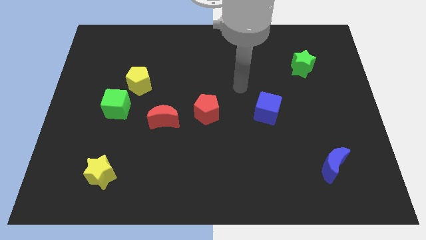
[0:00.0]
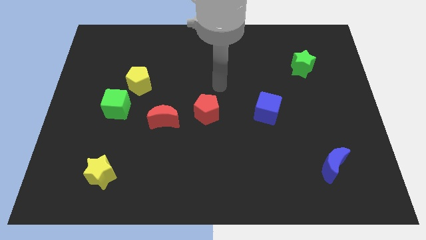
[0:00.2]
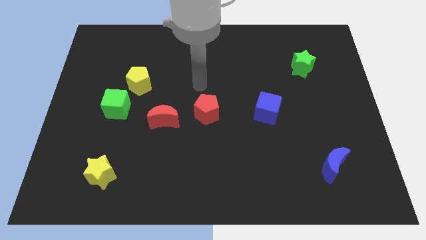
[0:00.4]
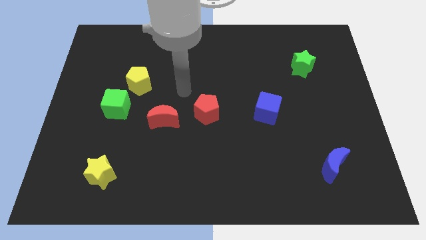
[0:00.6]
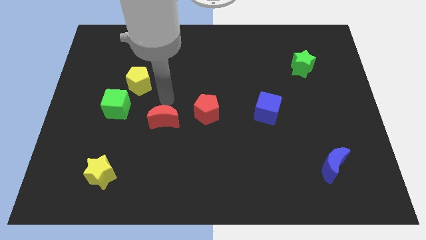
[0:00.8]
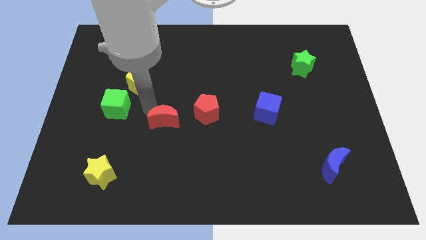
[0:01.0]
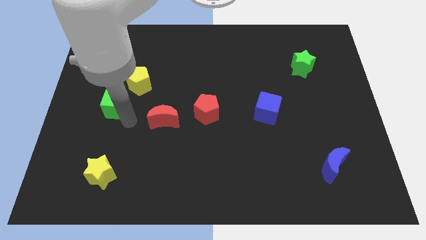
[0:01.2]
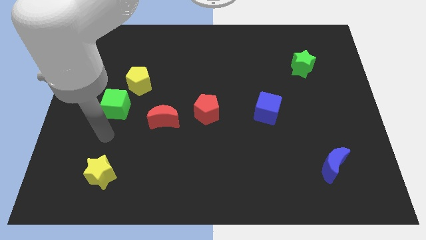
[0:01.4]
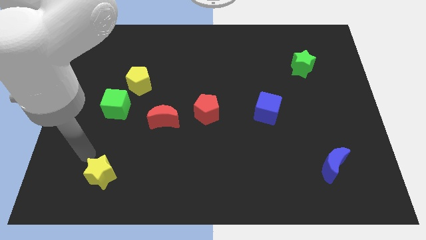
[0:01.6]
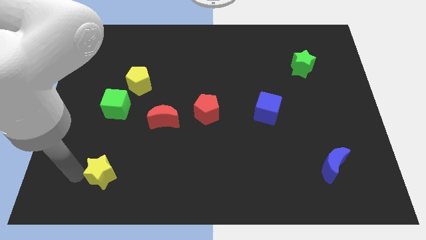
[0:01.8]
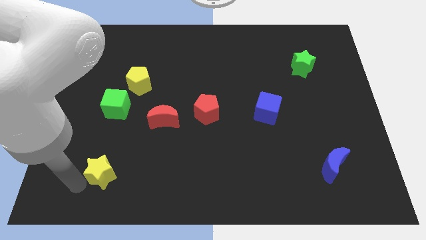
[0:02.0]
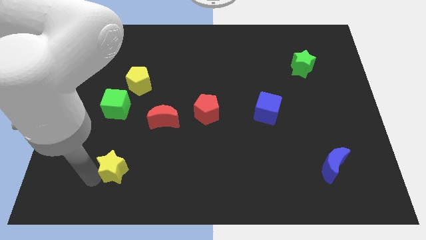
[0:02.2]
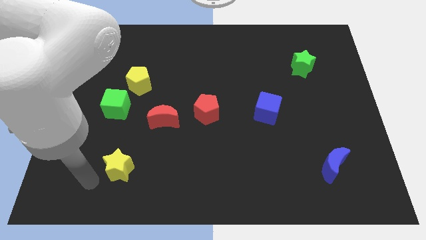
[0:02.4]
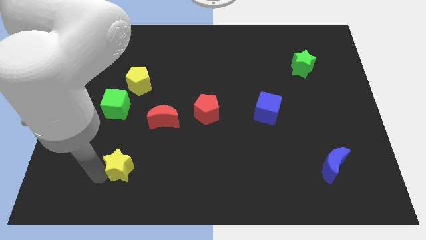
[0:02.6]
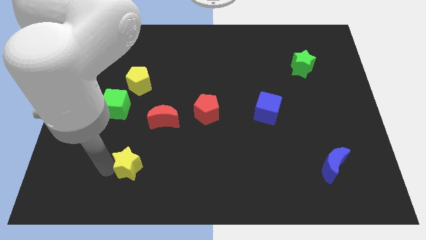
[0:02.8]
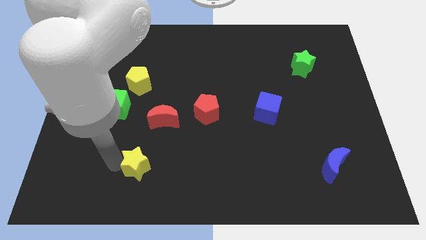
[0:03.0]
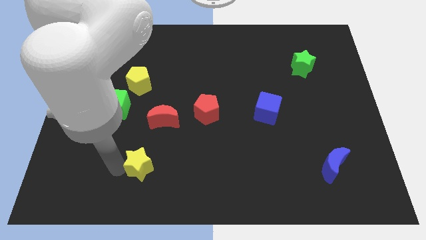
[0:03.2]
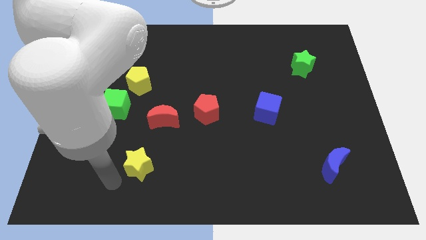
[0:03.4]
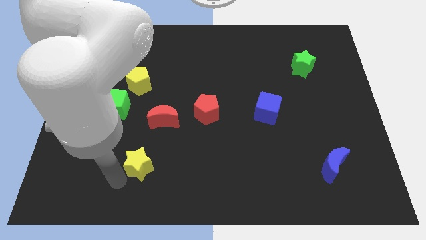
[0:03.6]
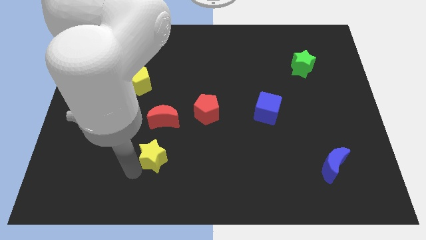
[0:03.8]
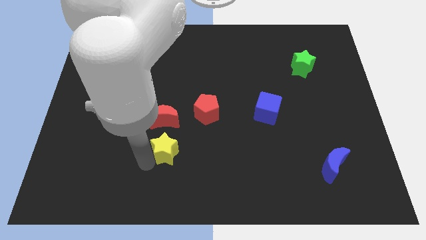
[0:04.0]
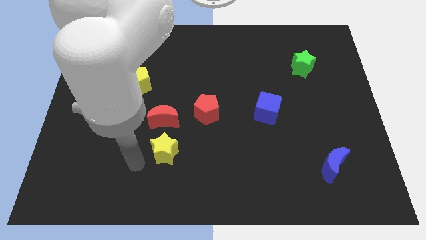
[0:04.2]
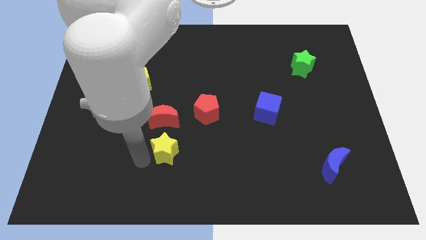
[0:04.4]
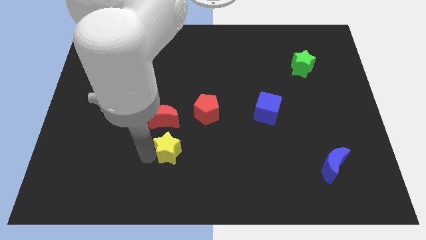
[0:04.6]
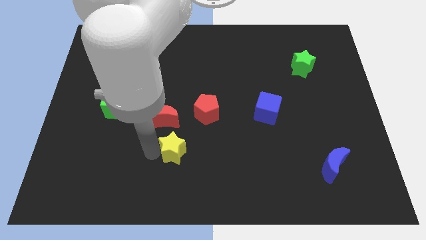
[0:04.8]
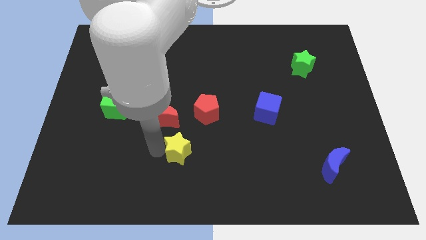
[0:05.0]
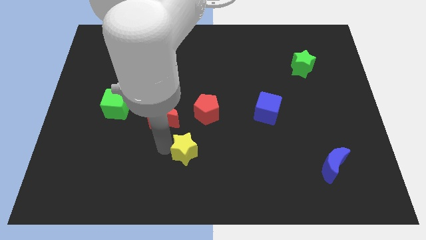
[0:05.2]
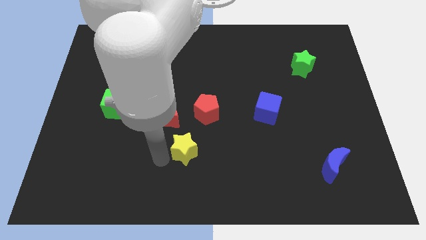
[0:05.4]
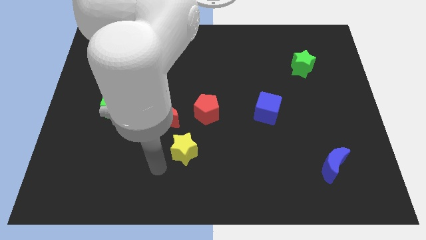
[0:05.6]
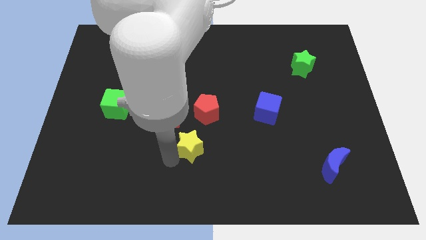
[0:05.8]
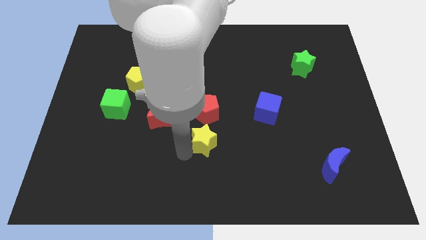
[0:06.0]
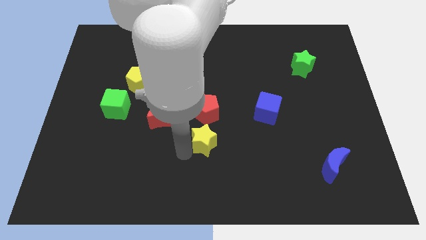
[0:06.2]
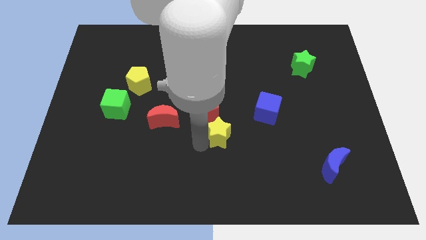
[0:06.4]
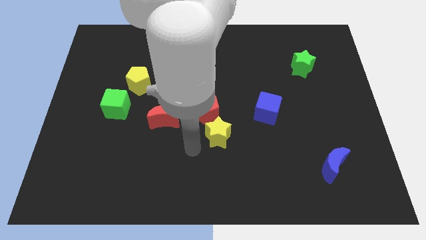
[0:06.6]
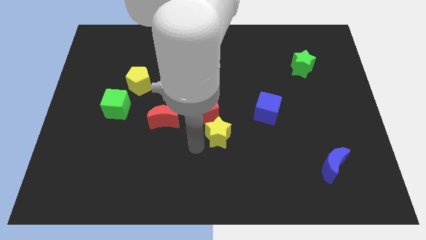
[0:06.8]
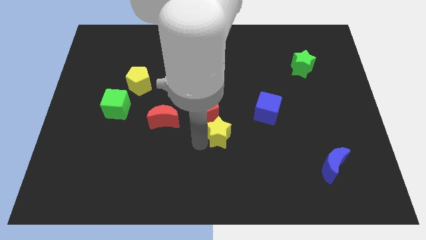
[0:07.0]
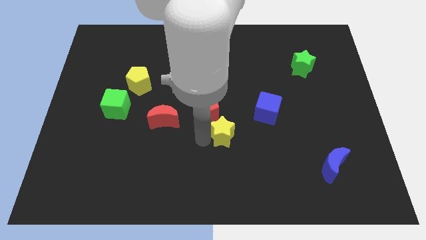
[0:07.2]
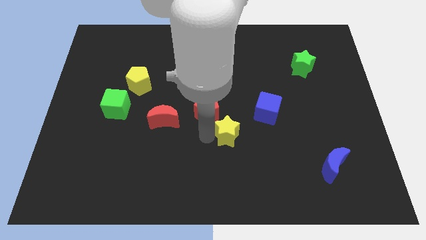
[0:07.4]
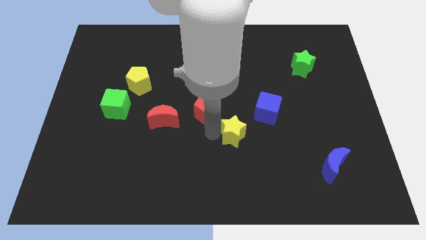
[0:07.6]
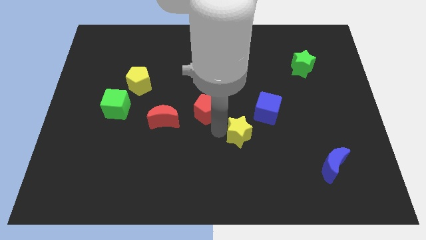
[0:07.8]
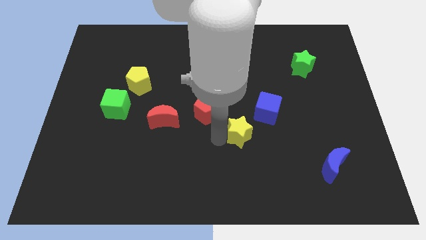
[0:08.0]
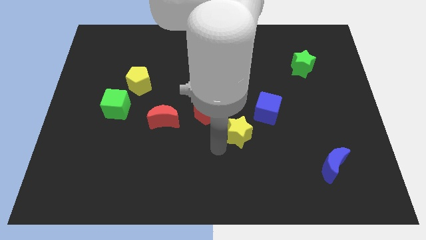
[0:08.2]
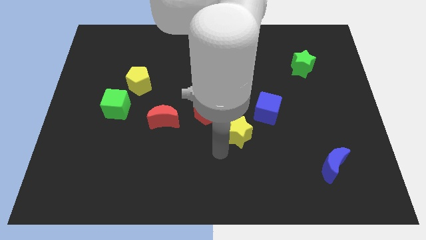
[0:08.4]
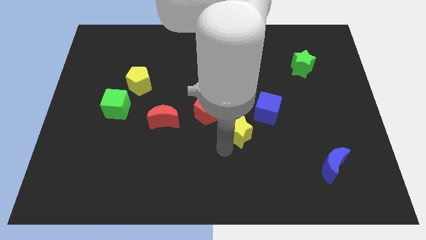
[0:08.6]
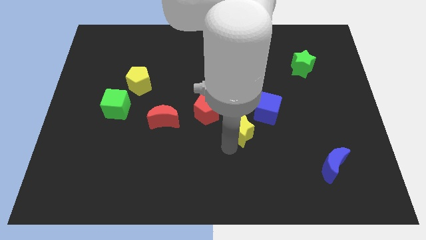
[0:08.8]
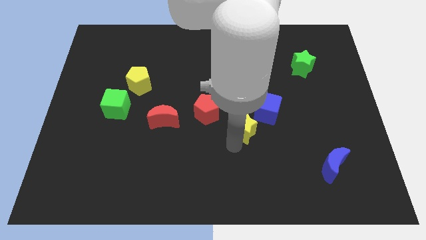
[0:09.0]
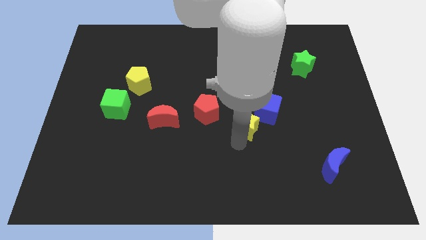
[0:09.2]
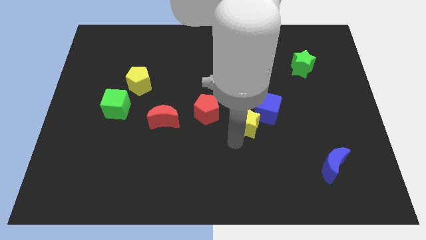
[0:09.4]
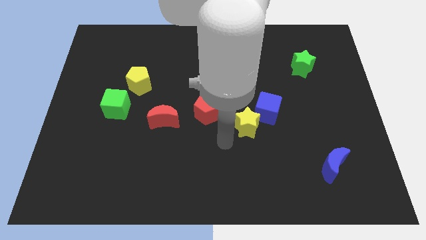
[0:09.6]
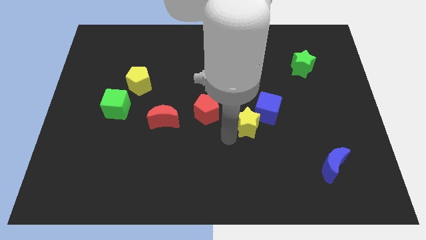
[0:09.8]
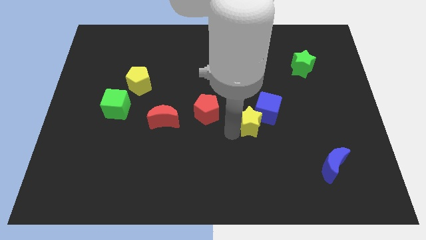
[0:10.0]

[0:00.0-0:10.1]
move the yellow star to the blue cube

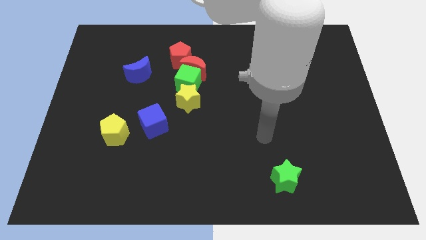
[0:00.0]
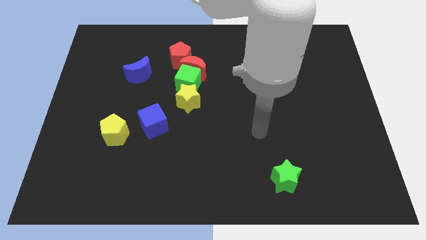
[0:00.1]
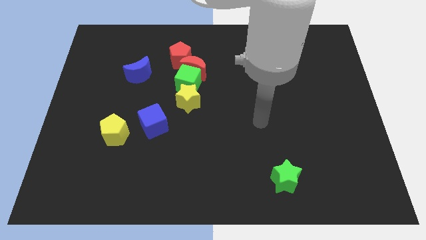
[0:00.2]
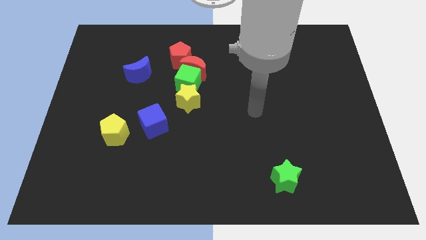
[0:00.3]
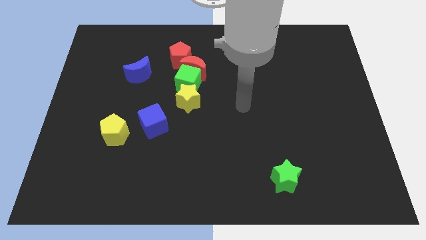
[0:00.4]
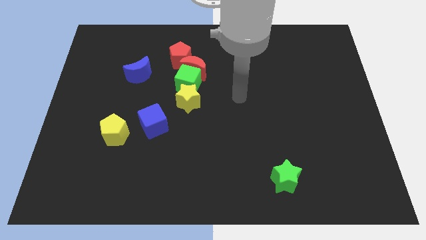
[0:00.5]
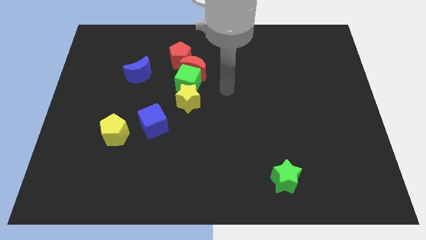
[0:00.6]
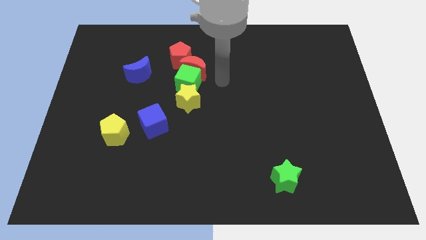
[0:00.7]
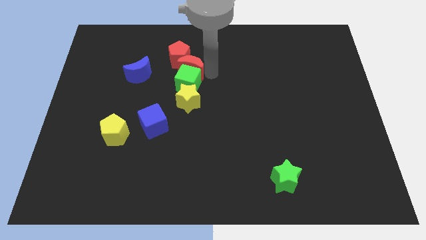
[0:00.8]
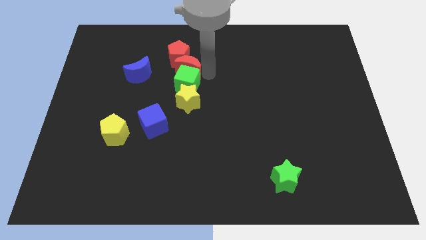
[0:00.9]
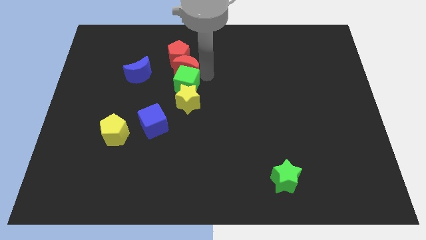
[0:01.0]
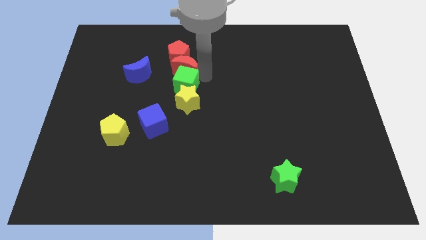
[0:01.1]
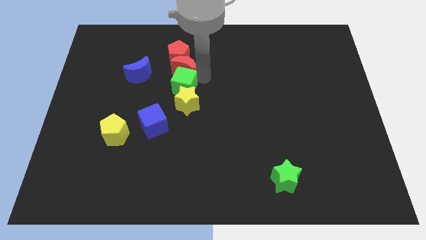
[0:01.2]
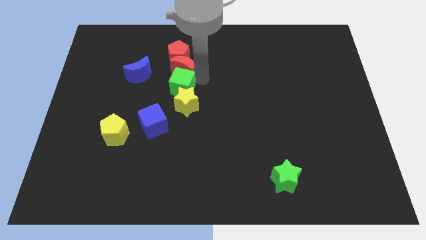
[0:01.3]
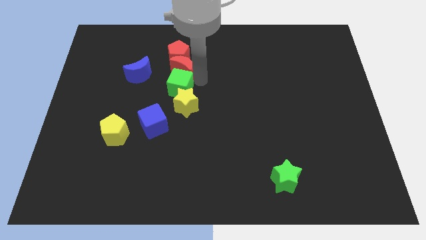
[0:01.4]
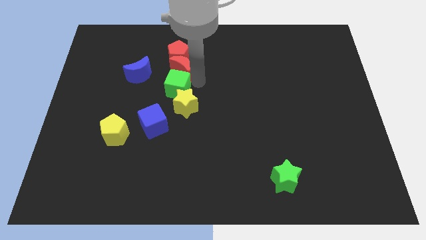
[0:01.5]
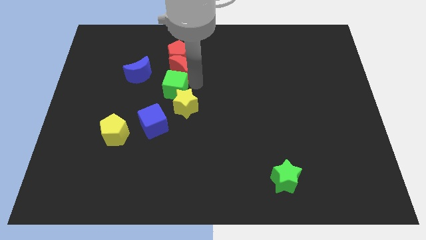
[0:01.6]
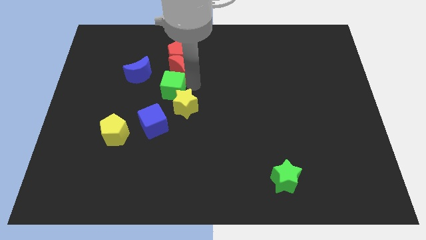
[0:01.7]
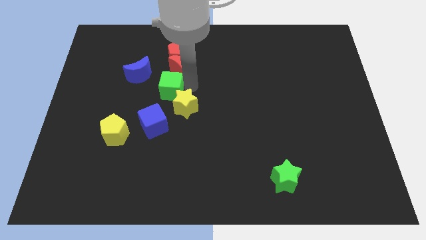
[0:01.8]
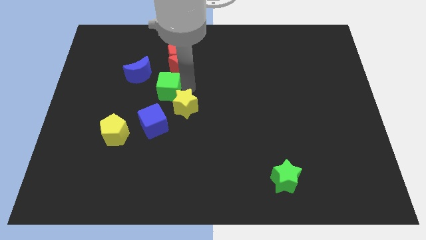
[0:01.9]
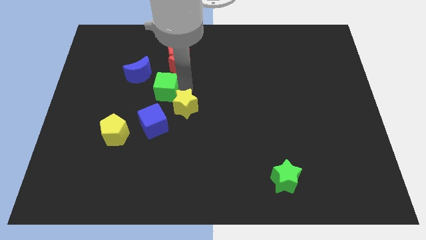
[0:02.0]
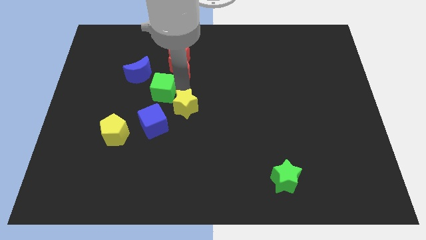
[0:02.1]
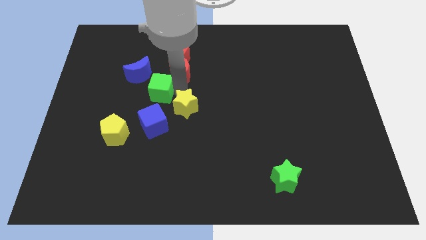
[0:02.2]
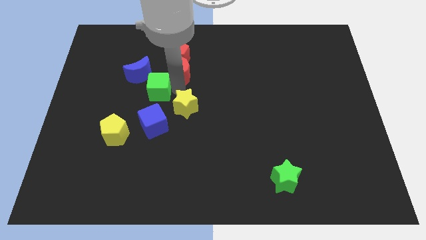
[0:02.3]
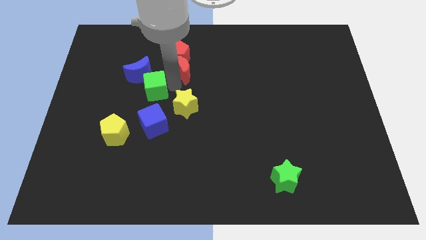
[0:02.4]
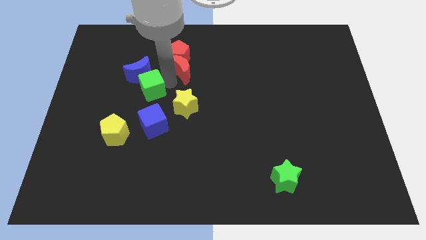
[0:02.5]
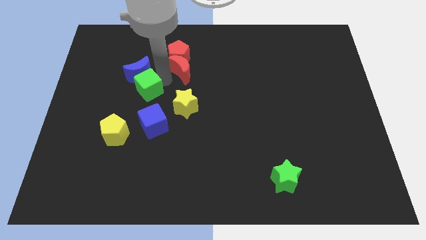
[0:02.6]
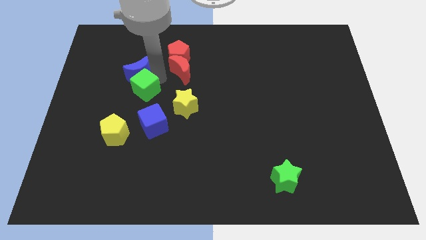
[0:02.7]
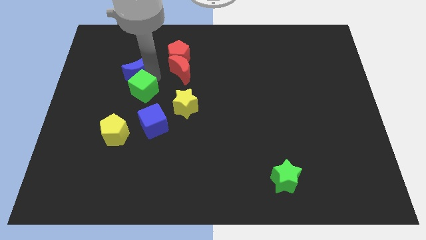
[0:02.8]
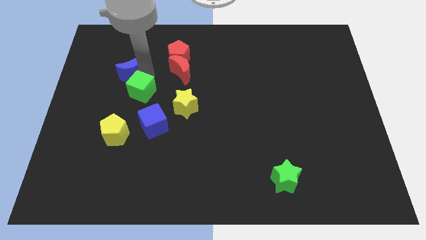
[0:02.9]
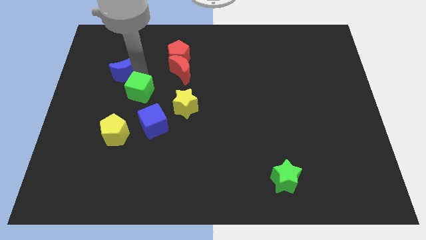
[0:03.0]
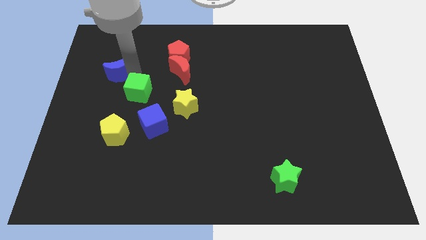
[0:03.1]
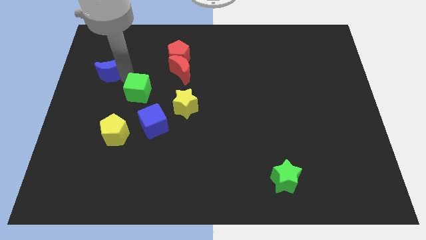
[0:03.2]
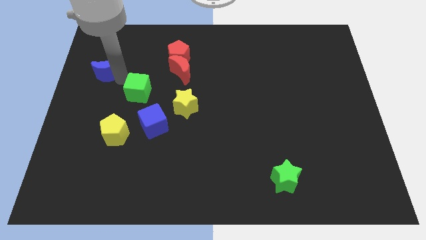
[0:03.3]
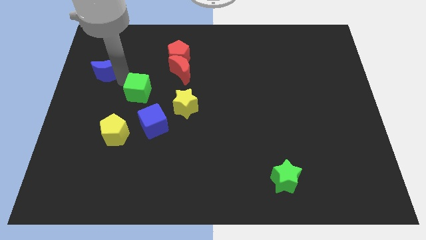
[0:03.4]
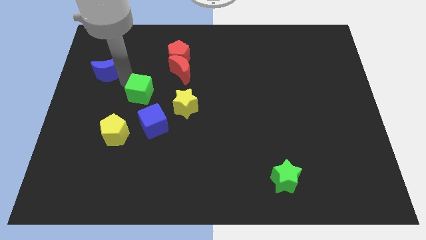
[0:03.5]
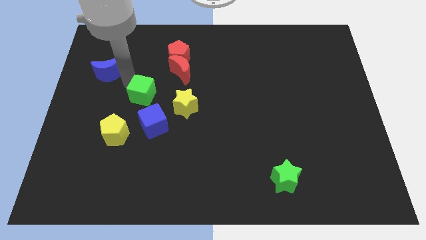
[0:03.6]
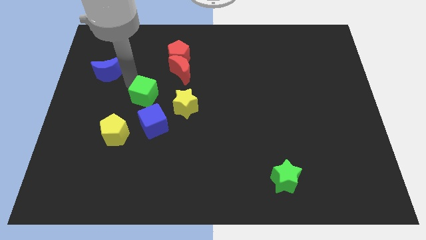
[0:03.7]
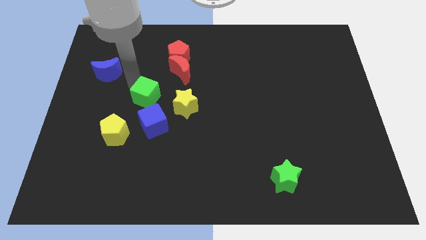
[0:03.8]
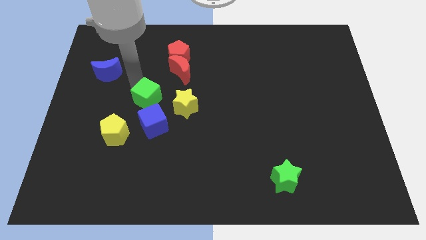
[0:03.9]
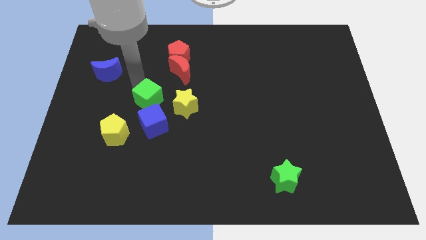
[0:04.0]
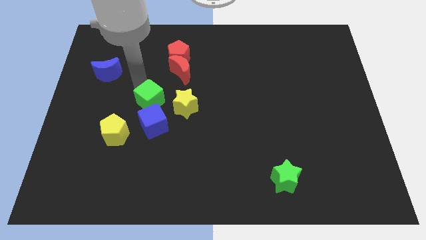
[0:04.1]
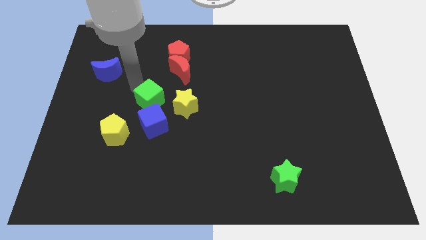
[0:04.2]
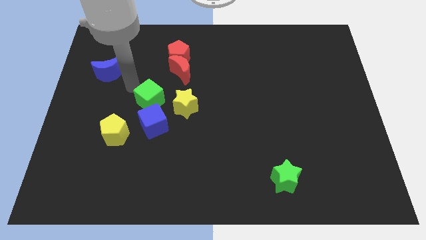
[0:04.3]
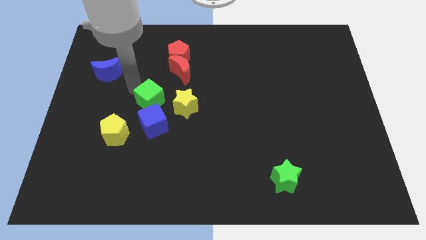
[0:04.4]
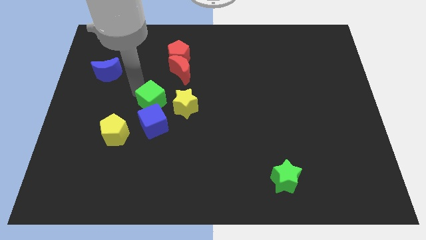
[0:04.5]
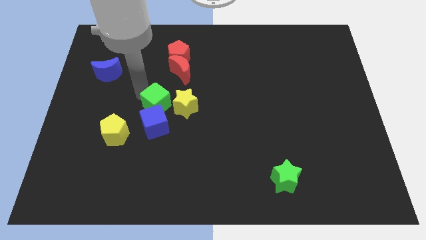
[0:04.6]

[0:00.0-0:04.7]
move the green cube towards the blue cube
